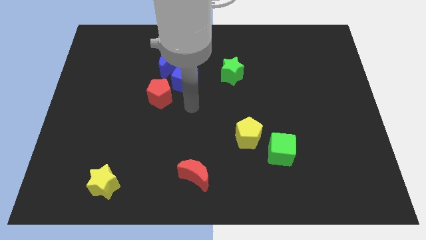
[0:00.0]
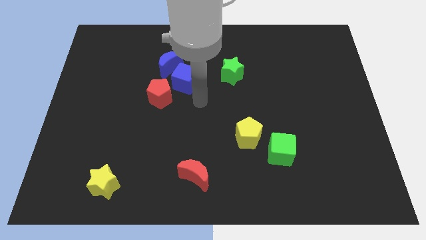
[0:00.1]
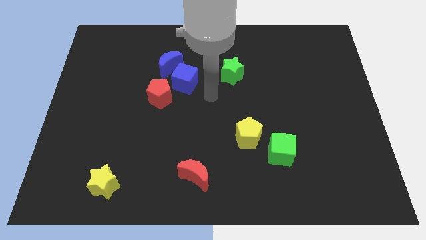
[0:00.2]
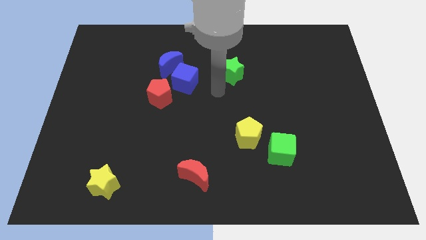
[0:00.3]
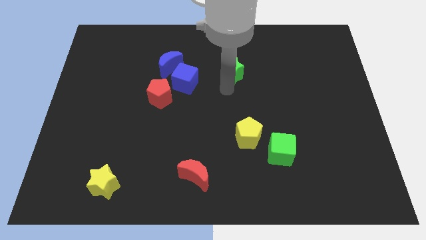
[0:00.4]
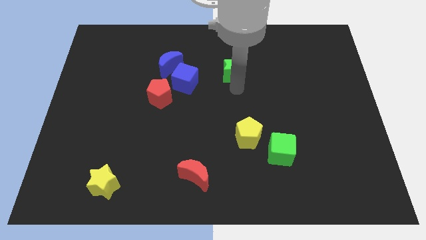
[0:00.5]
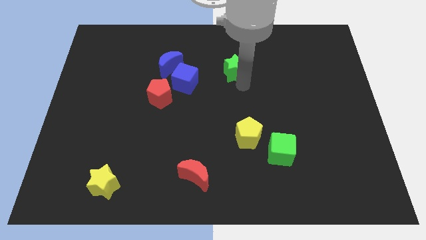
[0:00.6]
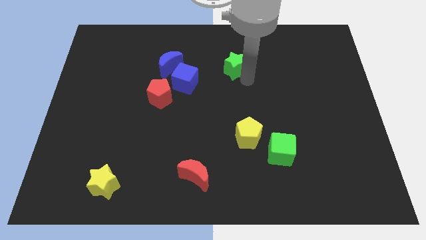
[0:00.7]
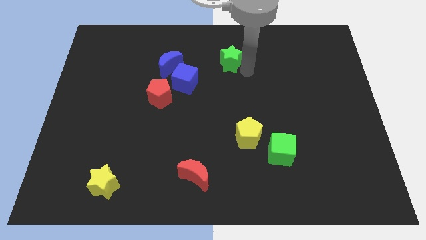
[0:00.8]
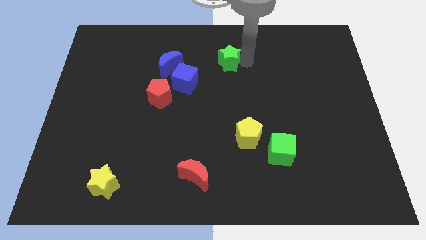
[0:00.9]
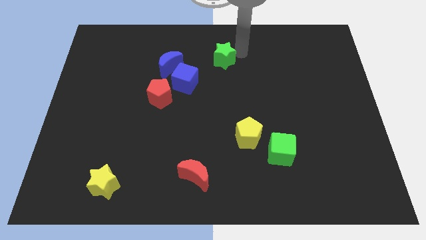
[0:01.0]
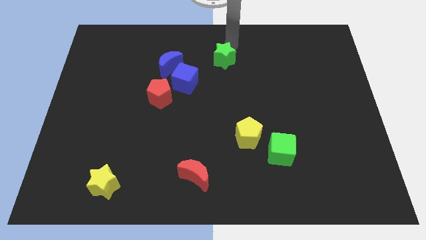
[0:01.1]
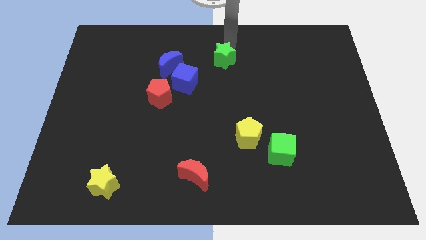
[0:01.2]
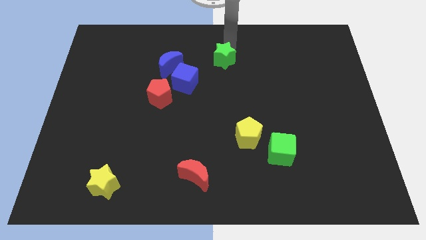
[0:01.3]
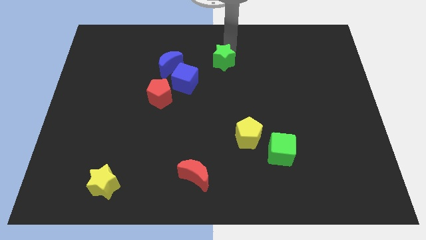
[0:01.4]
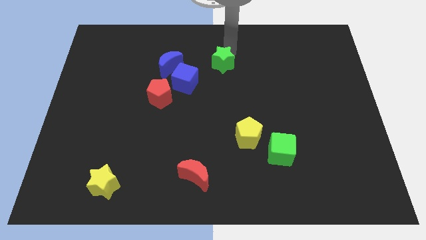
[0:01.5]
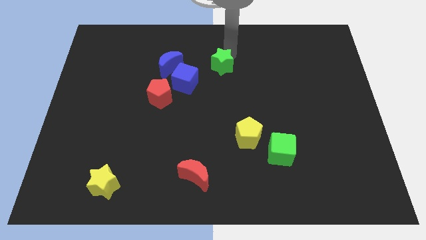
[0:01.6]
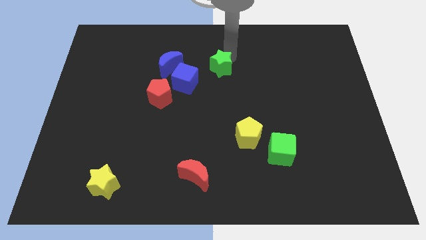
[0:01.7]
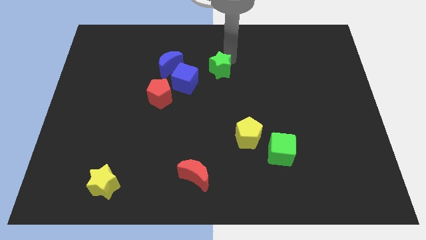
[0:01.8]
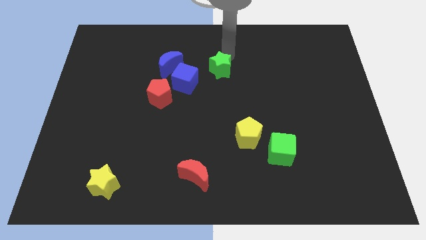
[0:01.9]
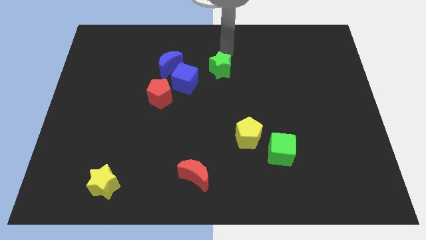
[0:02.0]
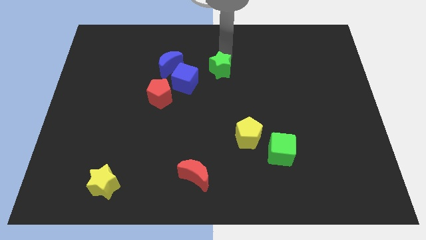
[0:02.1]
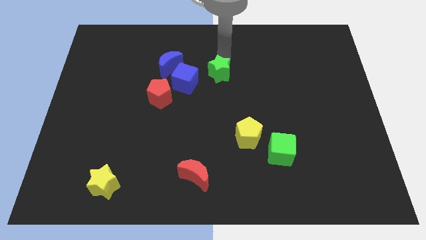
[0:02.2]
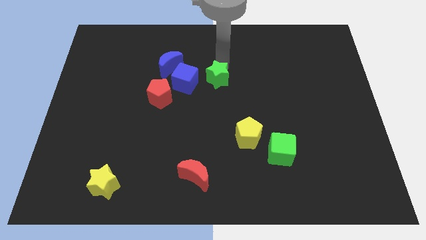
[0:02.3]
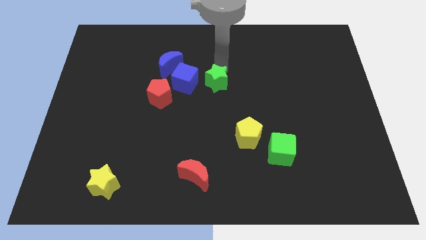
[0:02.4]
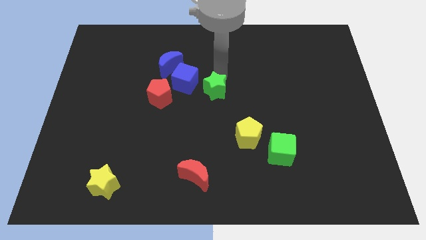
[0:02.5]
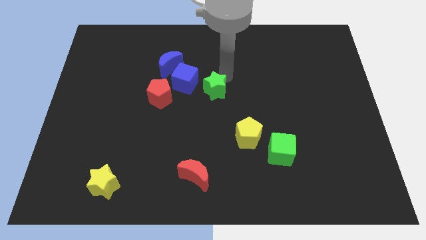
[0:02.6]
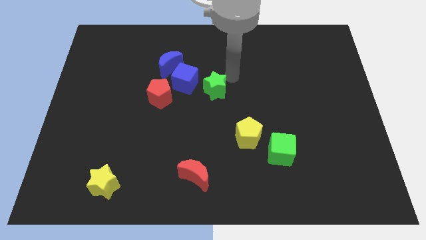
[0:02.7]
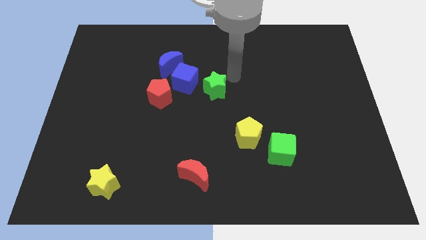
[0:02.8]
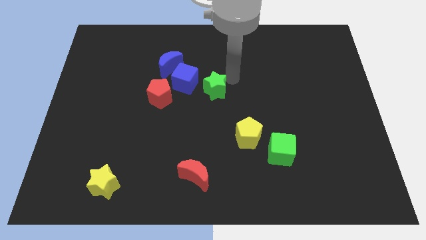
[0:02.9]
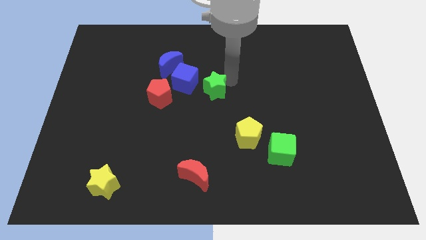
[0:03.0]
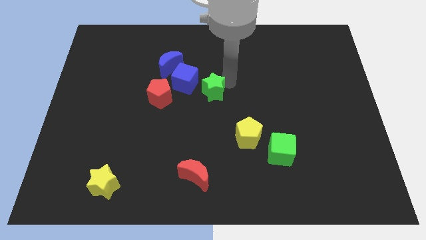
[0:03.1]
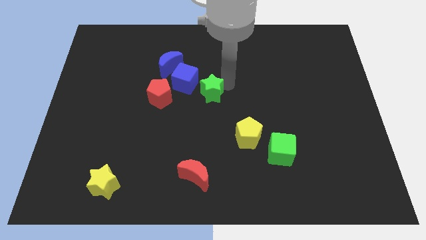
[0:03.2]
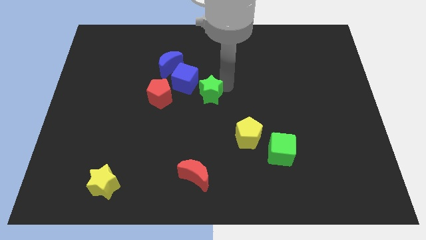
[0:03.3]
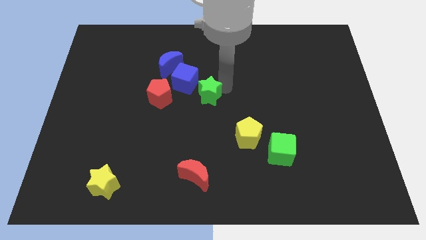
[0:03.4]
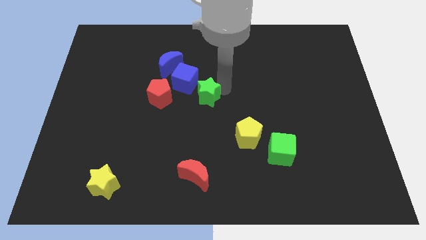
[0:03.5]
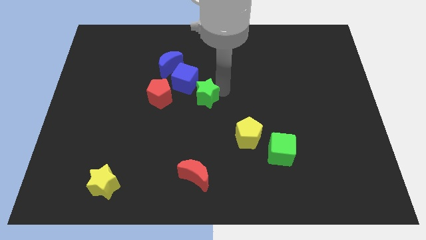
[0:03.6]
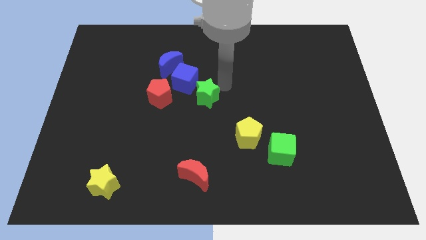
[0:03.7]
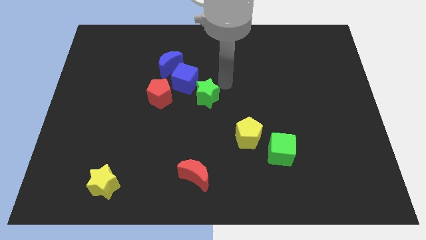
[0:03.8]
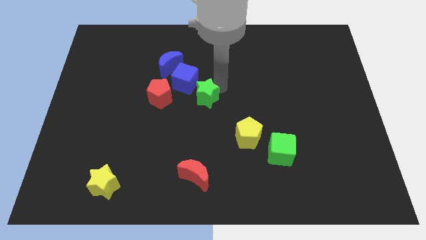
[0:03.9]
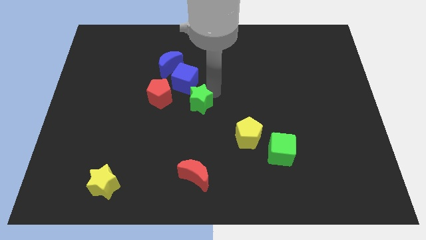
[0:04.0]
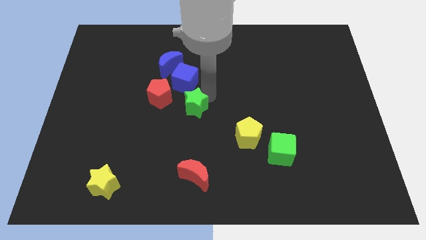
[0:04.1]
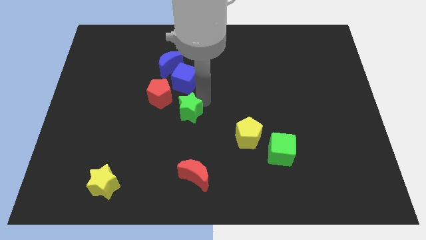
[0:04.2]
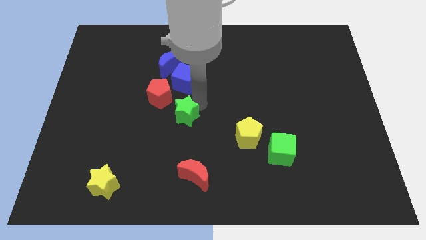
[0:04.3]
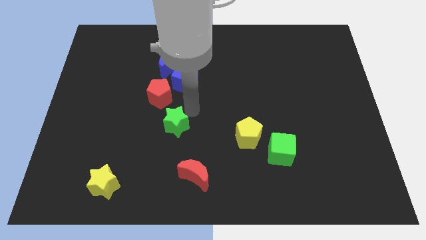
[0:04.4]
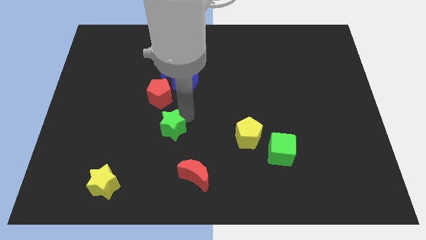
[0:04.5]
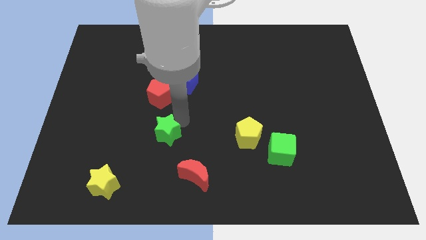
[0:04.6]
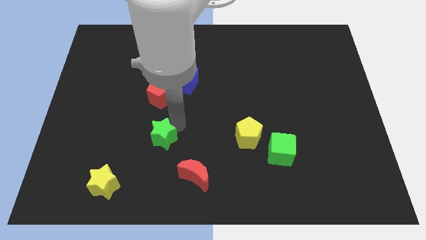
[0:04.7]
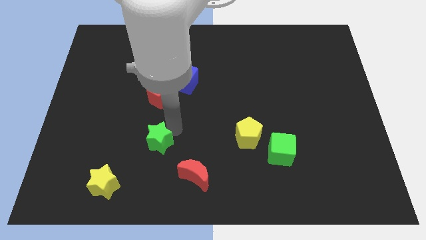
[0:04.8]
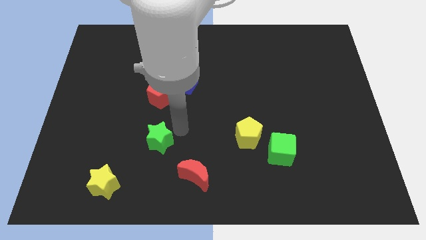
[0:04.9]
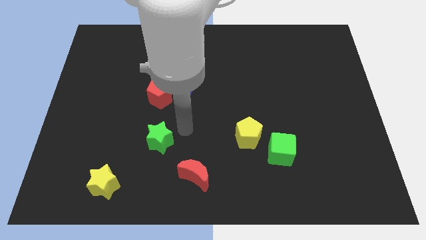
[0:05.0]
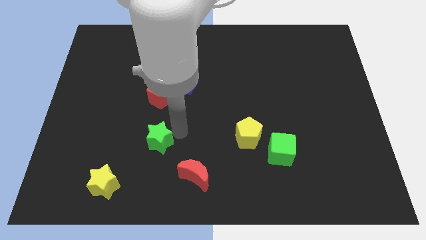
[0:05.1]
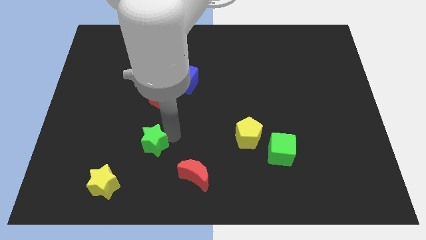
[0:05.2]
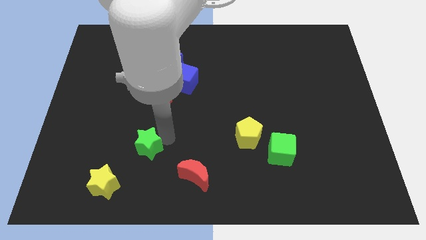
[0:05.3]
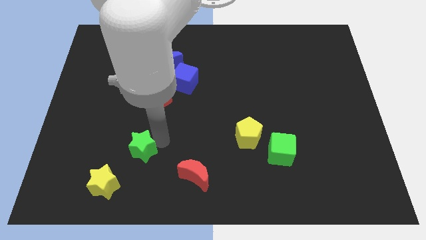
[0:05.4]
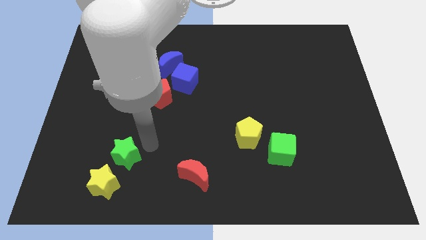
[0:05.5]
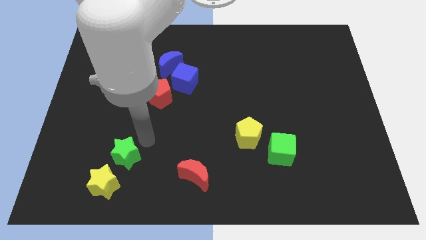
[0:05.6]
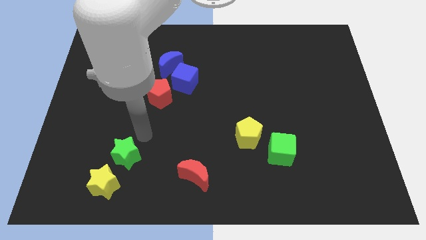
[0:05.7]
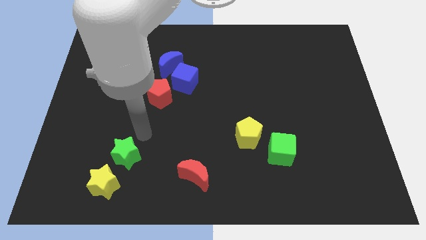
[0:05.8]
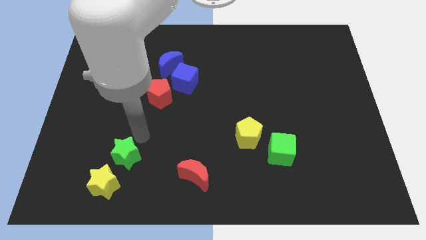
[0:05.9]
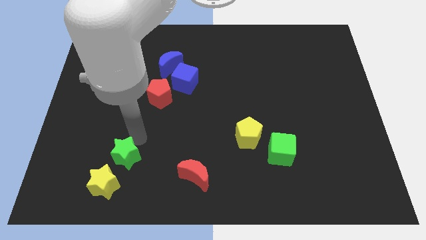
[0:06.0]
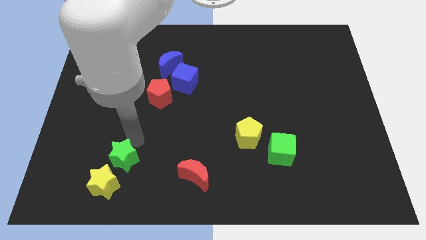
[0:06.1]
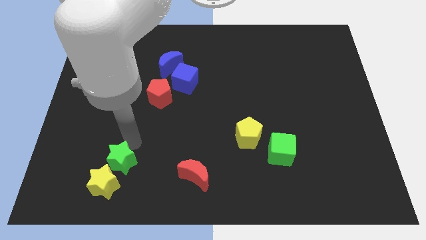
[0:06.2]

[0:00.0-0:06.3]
put the green star to the yellow star

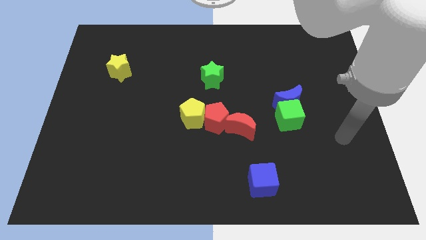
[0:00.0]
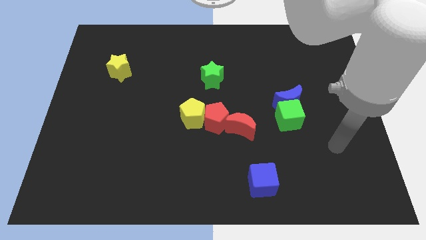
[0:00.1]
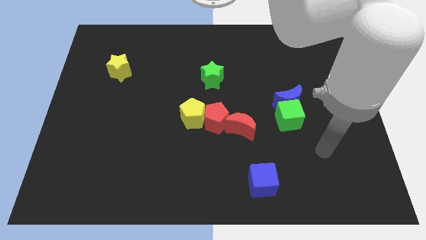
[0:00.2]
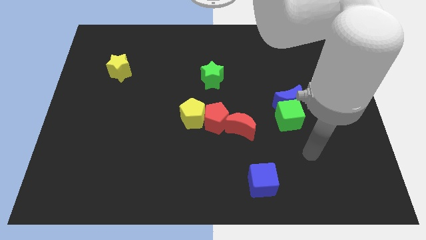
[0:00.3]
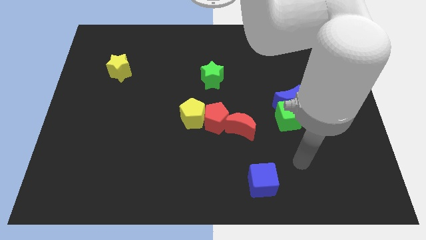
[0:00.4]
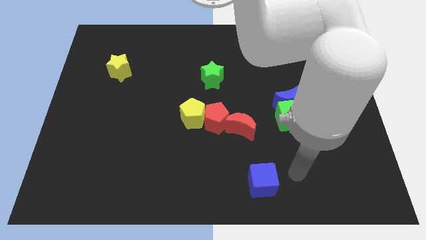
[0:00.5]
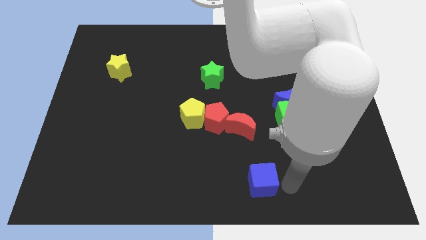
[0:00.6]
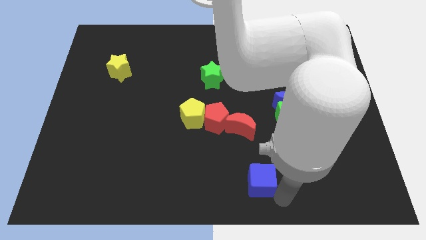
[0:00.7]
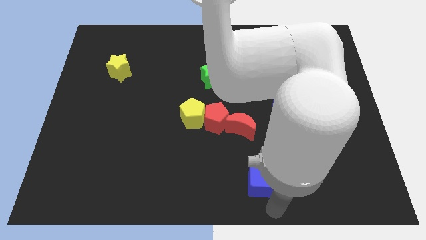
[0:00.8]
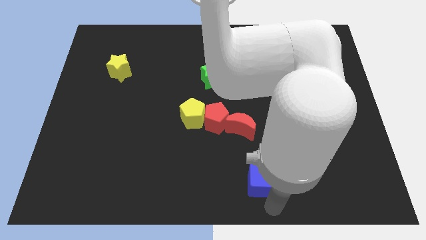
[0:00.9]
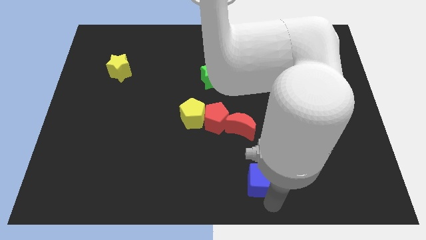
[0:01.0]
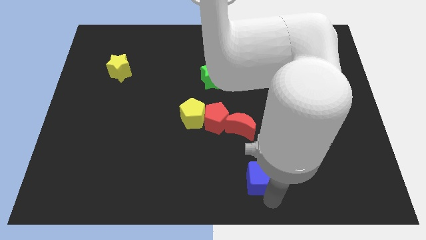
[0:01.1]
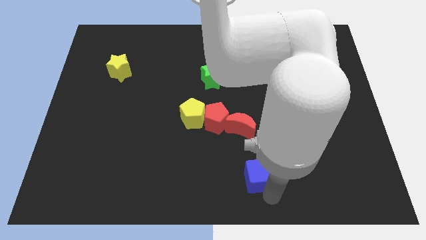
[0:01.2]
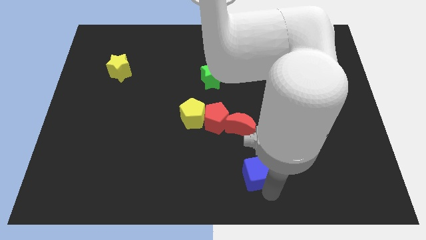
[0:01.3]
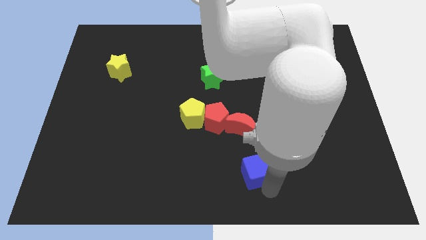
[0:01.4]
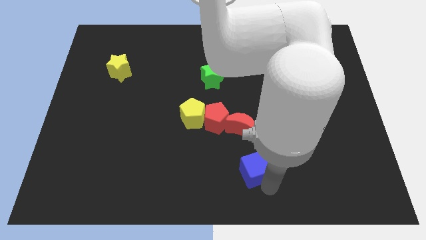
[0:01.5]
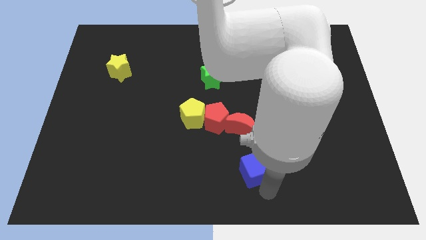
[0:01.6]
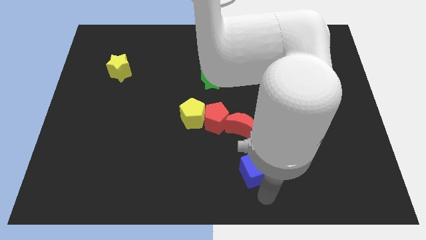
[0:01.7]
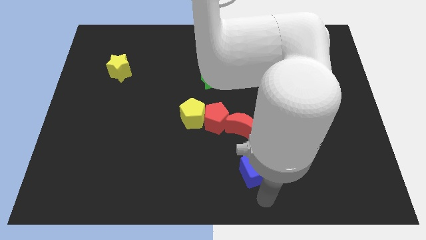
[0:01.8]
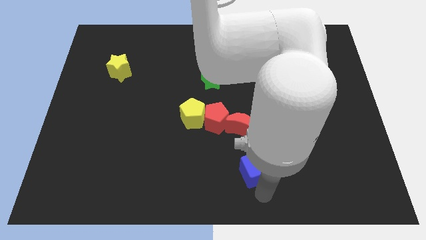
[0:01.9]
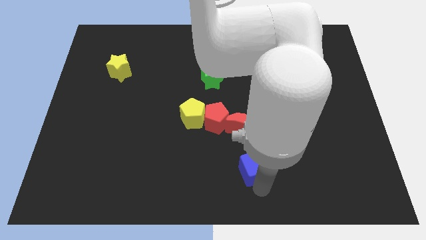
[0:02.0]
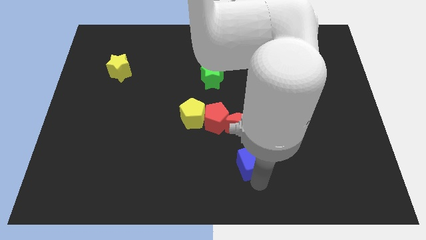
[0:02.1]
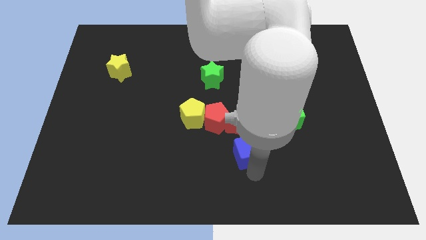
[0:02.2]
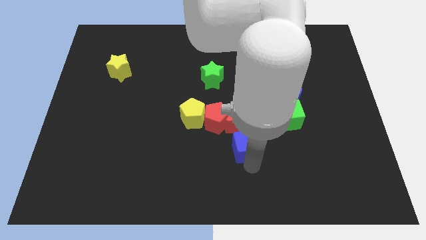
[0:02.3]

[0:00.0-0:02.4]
put the blue cube close to the red moon
